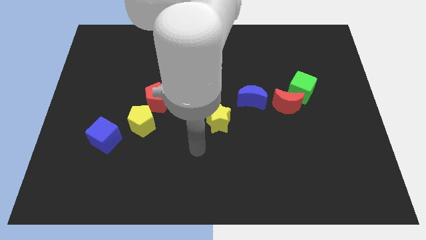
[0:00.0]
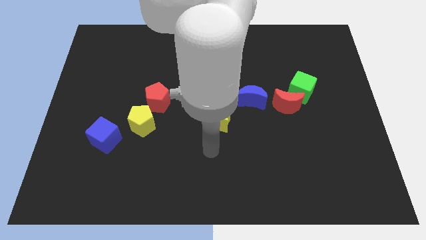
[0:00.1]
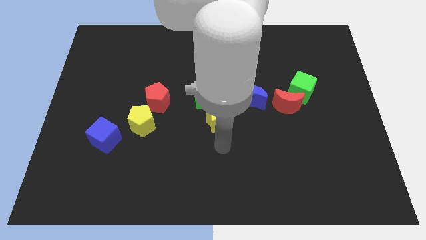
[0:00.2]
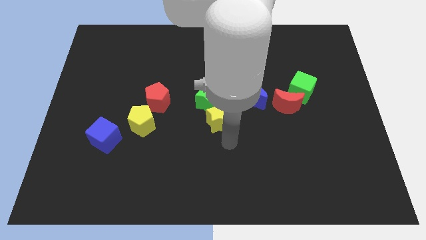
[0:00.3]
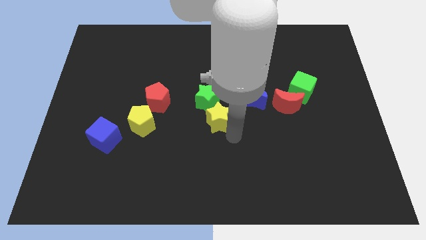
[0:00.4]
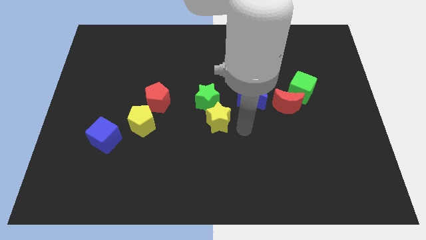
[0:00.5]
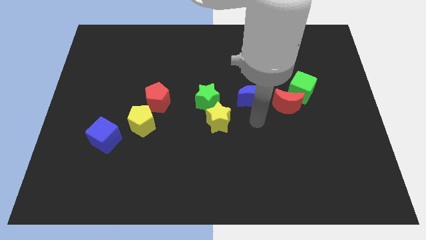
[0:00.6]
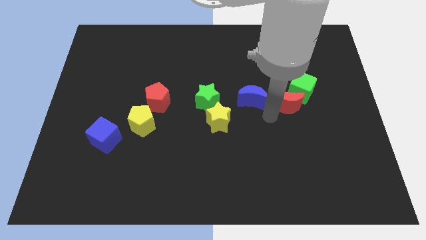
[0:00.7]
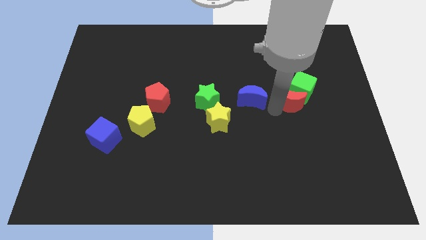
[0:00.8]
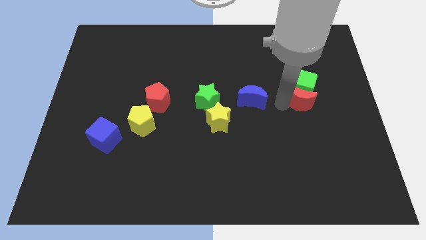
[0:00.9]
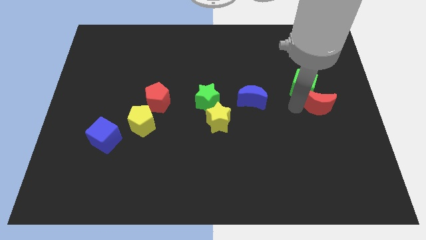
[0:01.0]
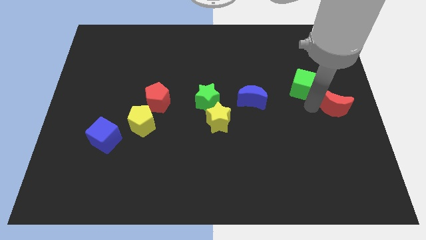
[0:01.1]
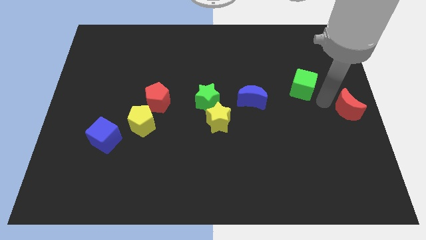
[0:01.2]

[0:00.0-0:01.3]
separate the green cube from the red moon

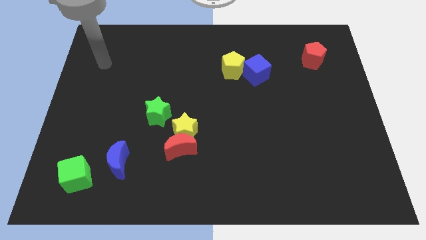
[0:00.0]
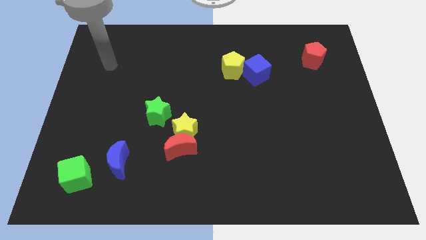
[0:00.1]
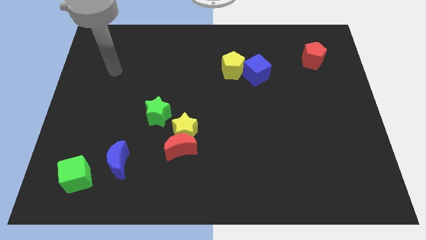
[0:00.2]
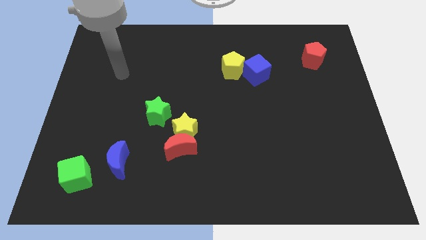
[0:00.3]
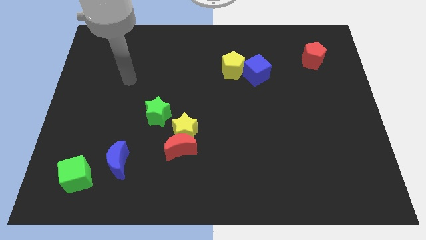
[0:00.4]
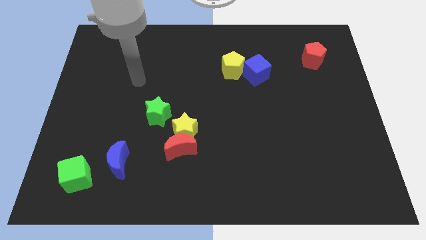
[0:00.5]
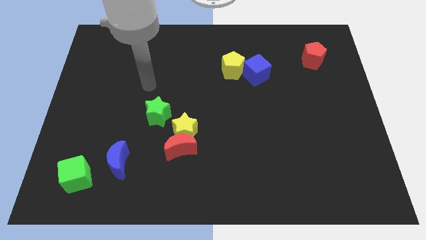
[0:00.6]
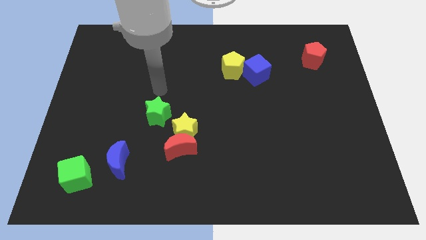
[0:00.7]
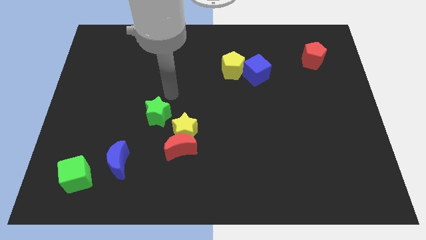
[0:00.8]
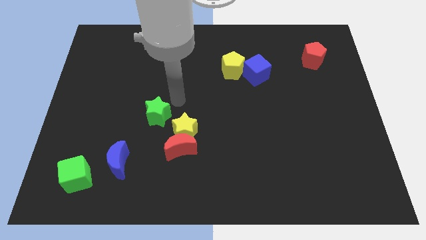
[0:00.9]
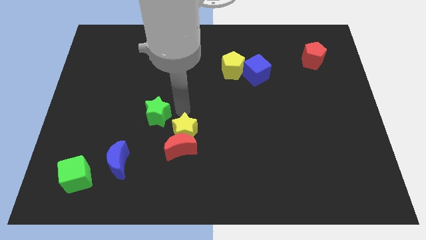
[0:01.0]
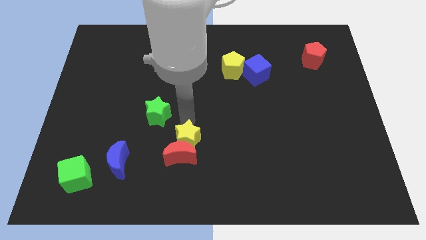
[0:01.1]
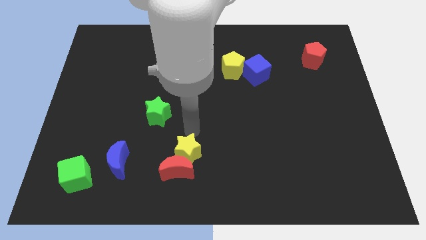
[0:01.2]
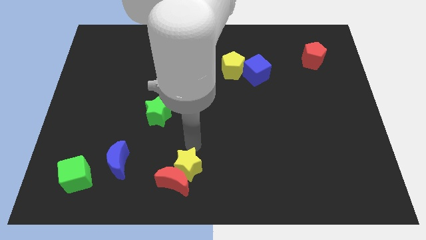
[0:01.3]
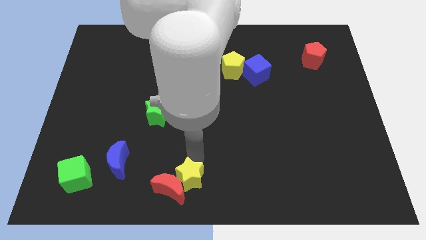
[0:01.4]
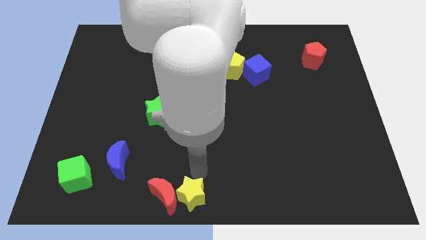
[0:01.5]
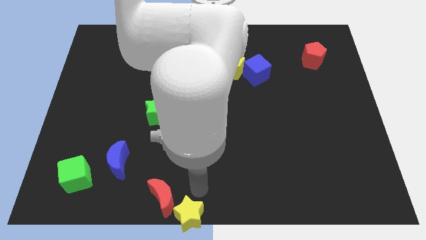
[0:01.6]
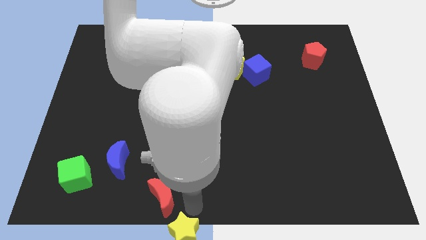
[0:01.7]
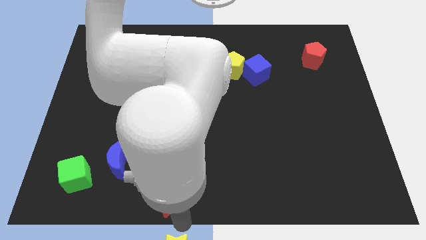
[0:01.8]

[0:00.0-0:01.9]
separate the red moon from the yellow star

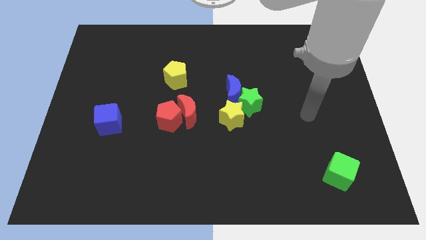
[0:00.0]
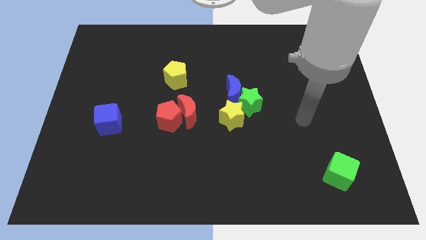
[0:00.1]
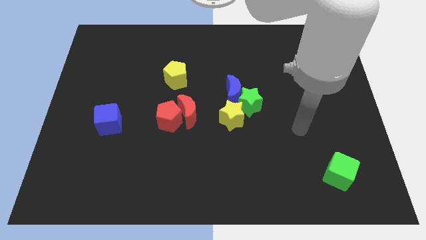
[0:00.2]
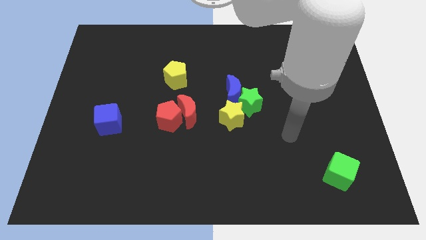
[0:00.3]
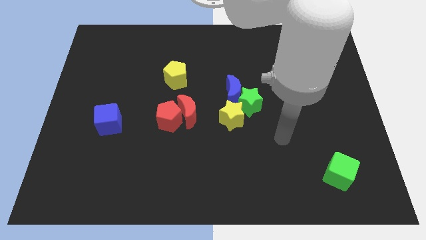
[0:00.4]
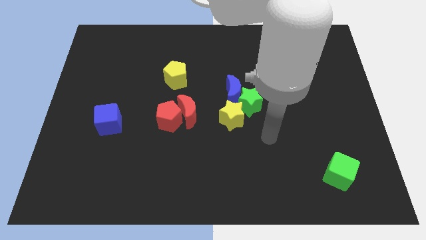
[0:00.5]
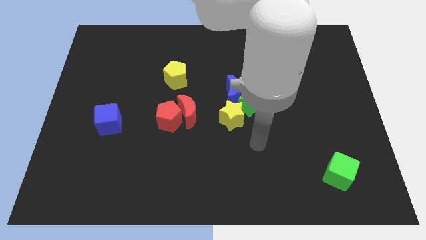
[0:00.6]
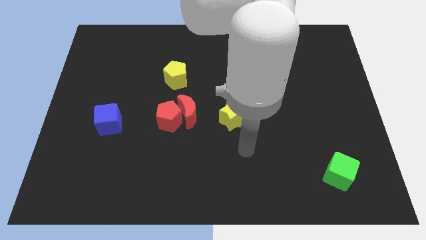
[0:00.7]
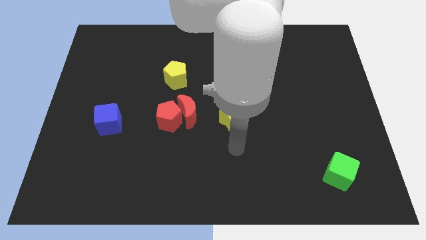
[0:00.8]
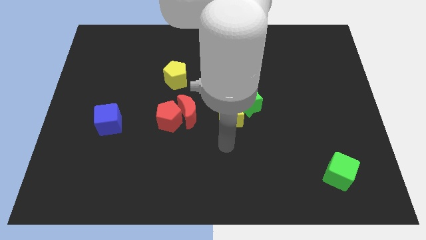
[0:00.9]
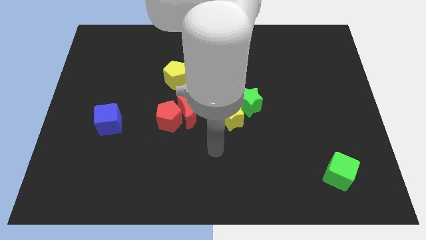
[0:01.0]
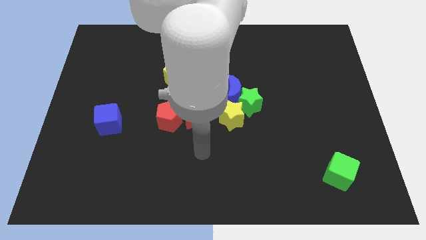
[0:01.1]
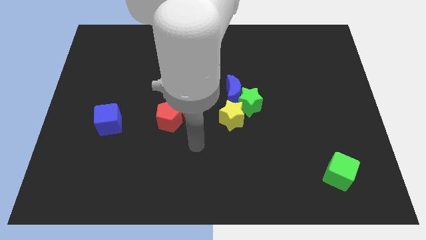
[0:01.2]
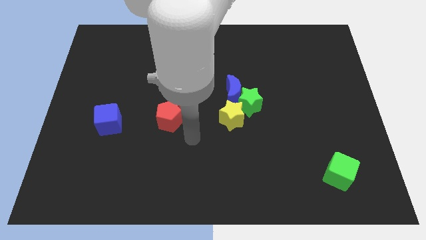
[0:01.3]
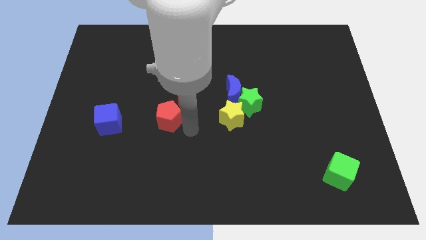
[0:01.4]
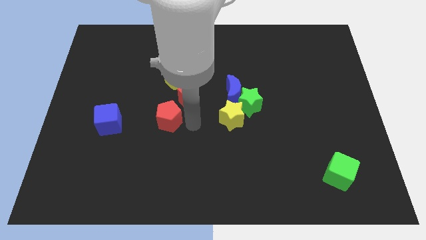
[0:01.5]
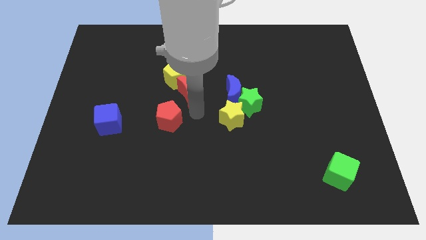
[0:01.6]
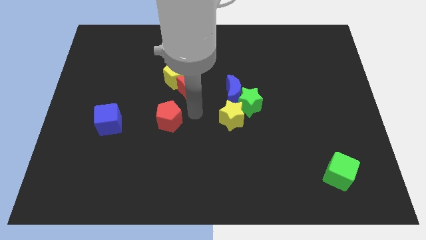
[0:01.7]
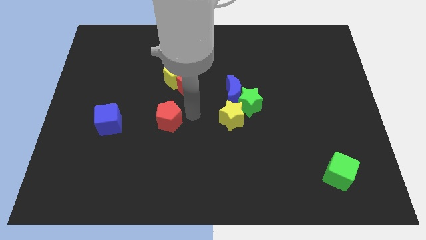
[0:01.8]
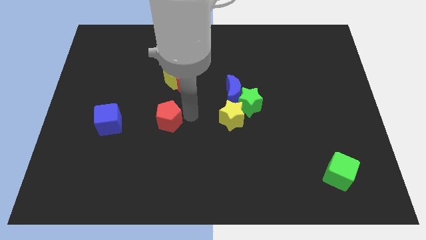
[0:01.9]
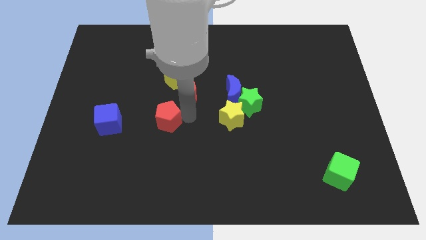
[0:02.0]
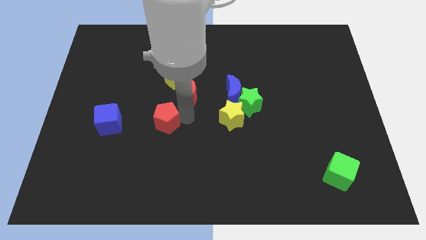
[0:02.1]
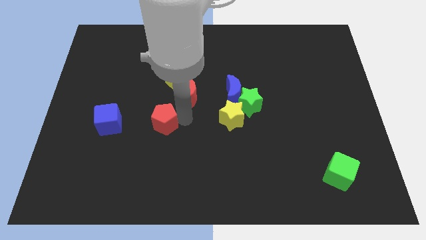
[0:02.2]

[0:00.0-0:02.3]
move the red pentagon away from the red moon

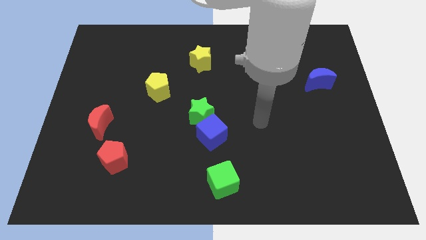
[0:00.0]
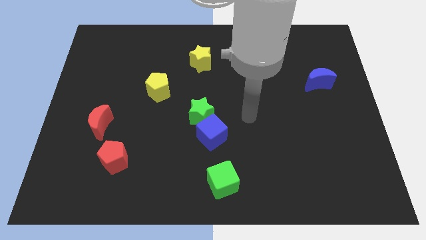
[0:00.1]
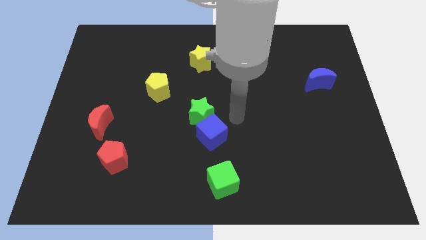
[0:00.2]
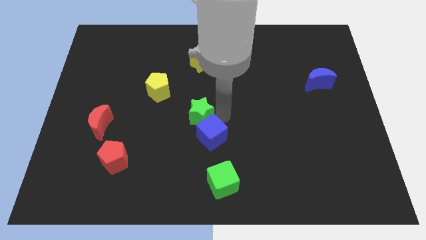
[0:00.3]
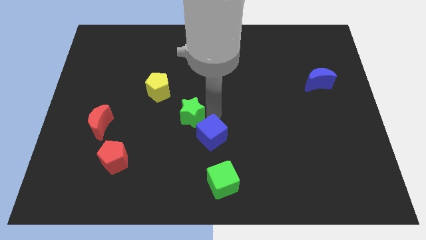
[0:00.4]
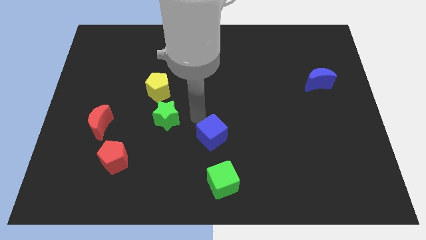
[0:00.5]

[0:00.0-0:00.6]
separate the blue cube from the green star

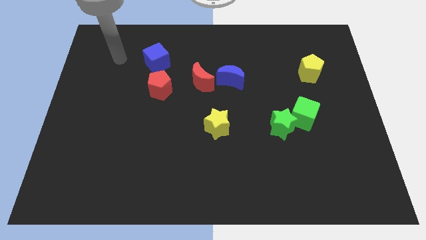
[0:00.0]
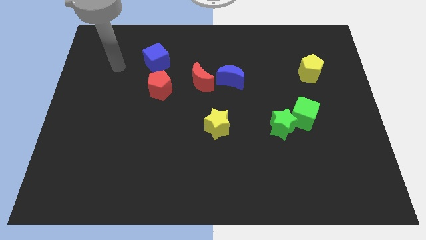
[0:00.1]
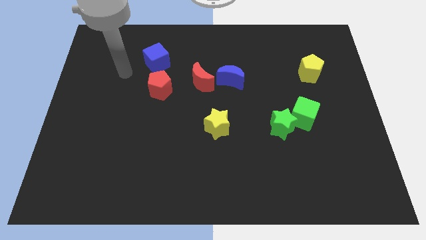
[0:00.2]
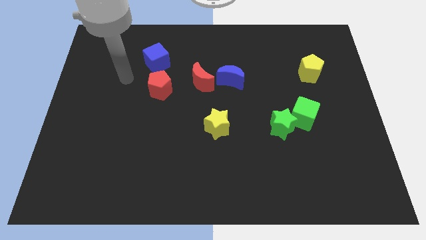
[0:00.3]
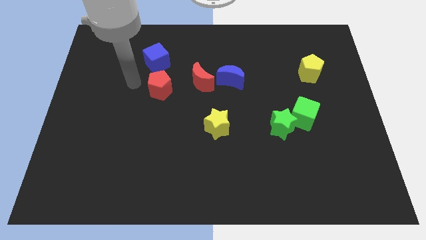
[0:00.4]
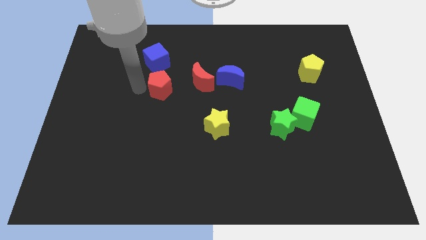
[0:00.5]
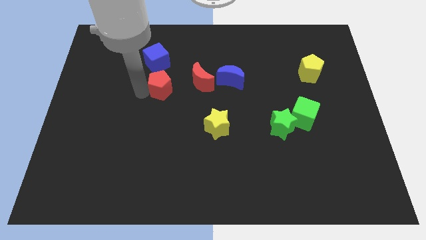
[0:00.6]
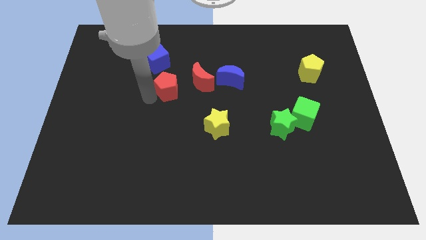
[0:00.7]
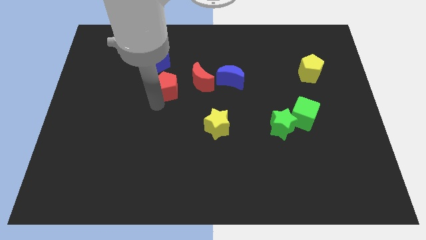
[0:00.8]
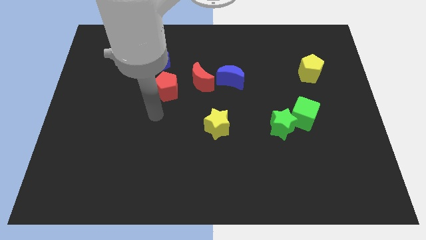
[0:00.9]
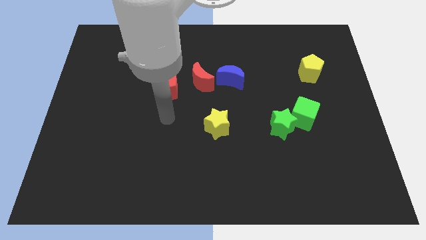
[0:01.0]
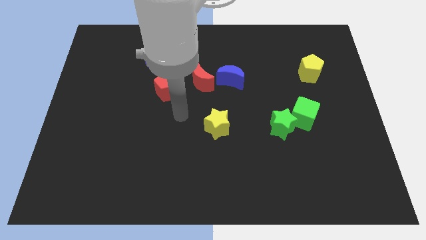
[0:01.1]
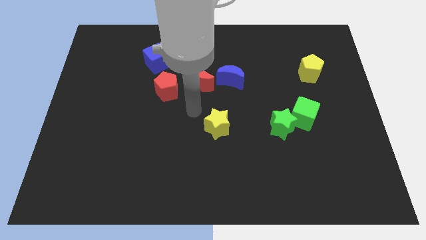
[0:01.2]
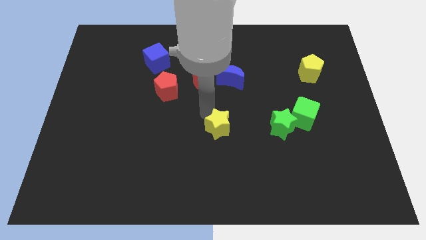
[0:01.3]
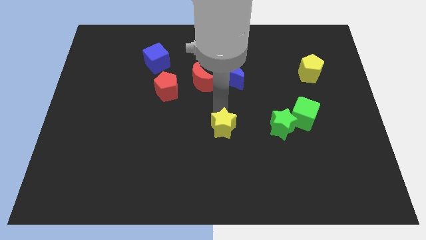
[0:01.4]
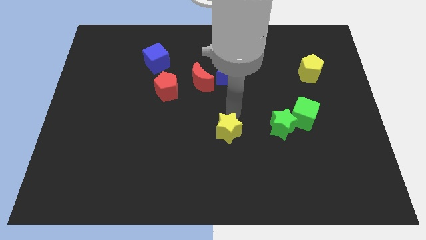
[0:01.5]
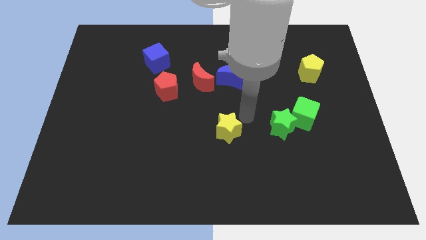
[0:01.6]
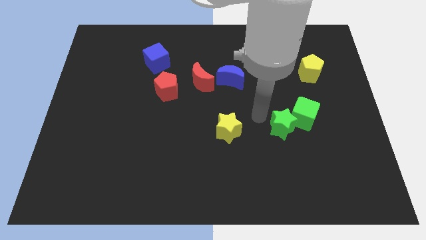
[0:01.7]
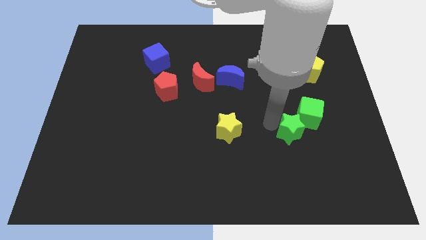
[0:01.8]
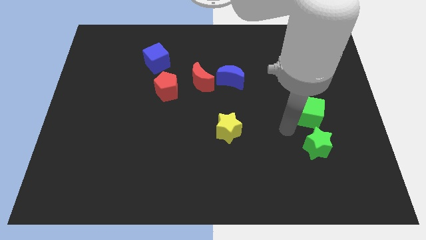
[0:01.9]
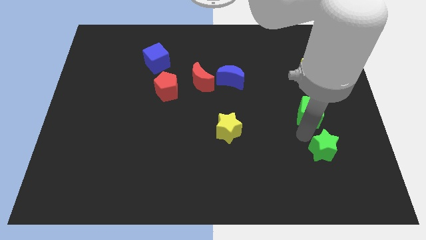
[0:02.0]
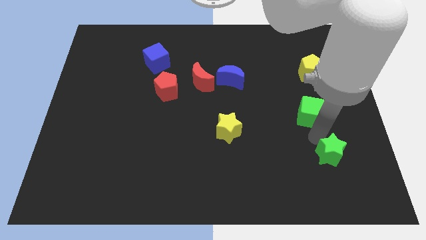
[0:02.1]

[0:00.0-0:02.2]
pull the green cube apart from the green star

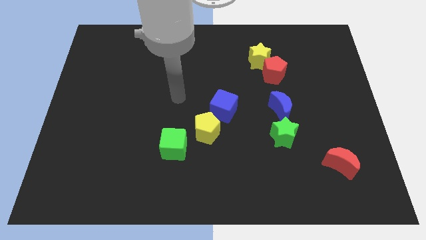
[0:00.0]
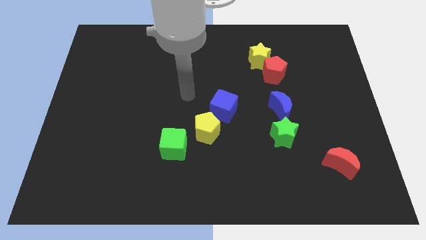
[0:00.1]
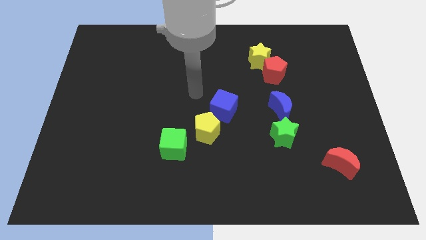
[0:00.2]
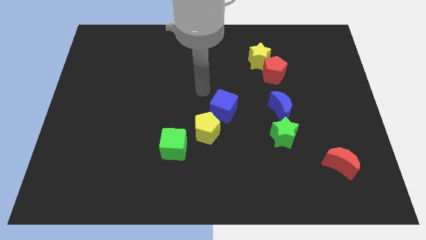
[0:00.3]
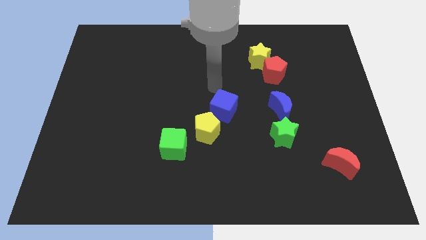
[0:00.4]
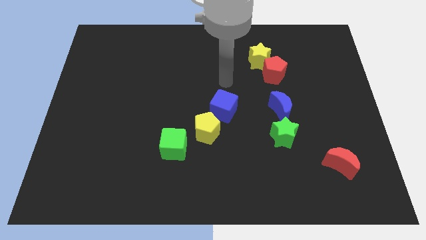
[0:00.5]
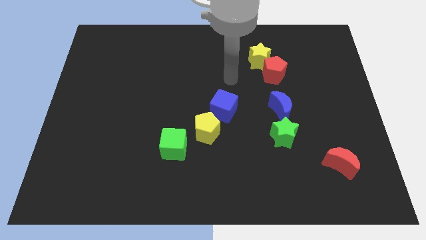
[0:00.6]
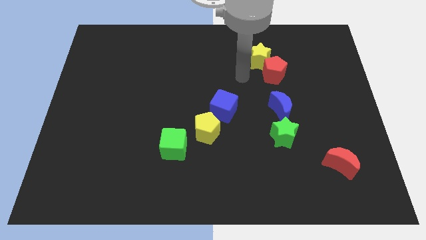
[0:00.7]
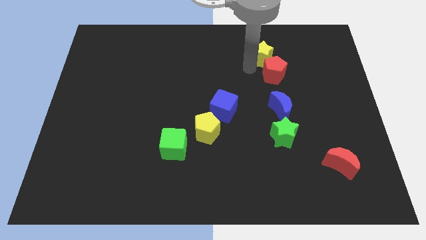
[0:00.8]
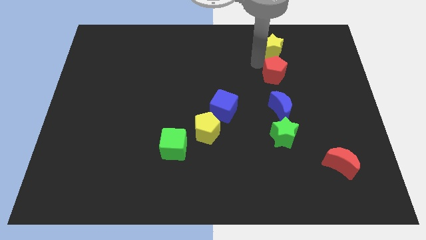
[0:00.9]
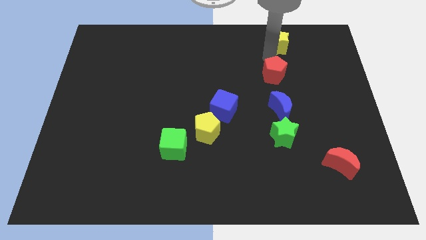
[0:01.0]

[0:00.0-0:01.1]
separate the red pentagon from the yellow star
